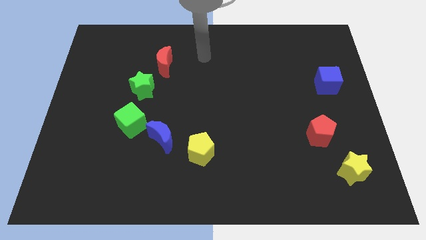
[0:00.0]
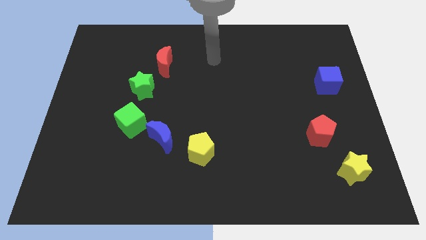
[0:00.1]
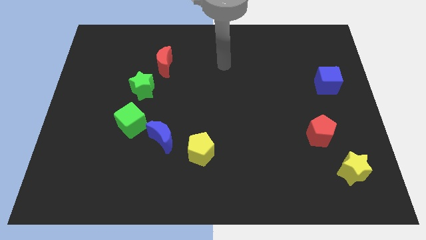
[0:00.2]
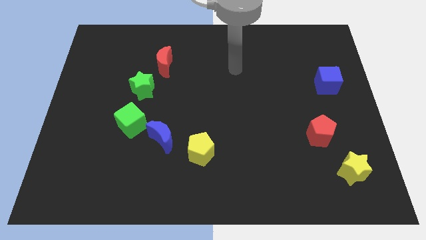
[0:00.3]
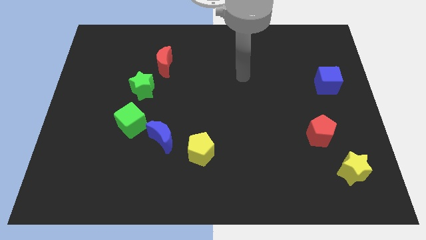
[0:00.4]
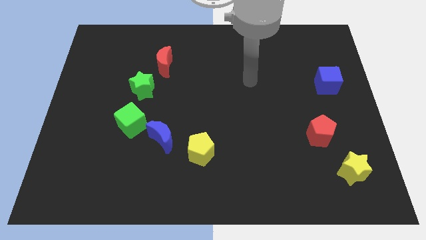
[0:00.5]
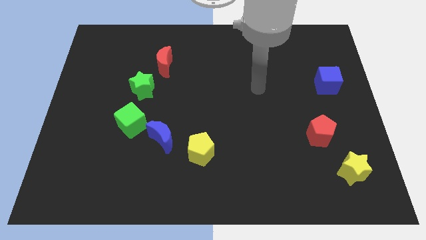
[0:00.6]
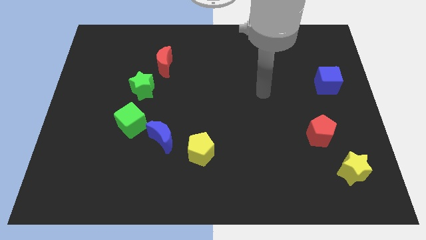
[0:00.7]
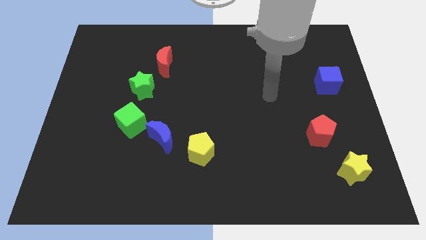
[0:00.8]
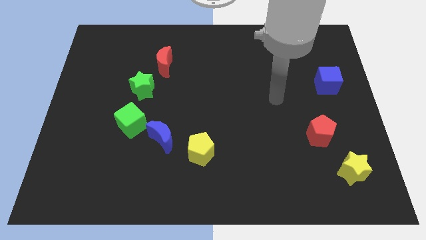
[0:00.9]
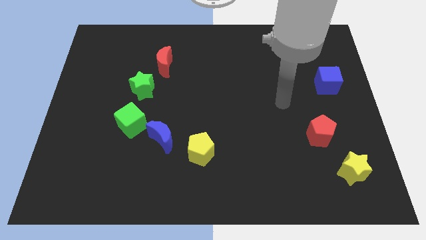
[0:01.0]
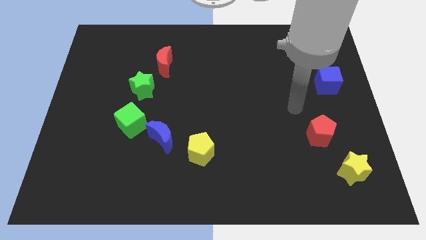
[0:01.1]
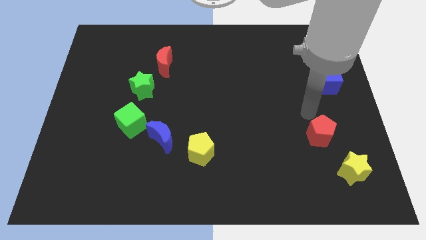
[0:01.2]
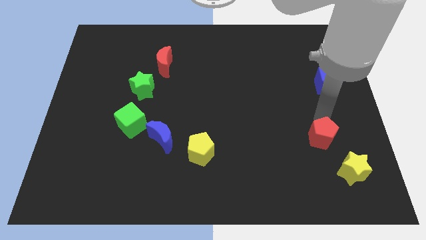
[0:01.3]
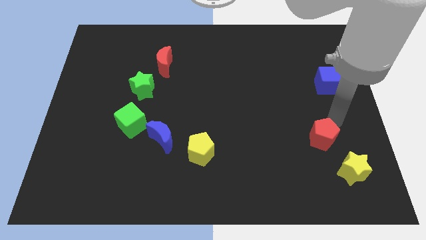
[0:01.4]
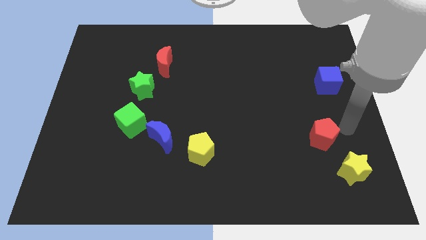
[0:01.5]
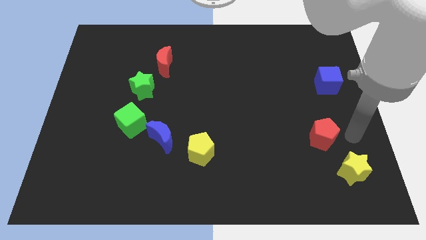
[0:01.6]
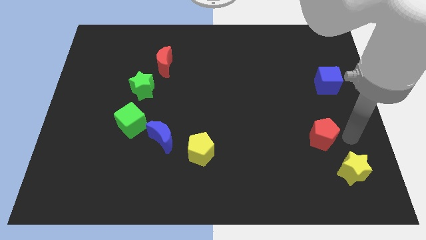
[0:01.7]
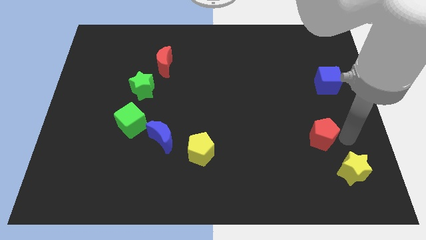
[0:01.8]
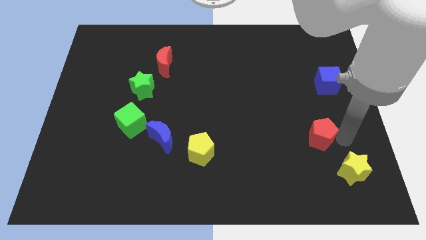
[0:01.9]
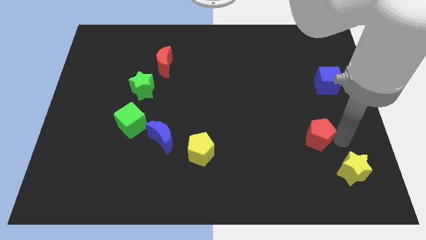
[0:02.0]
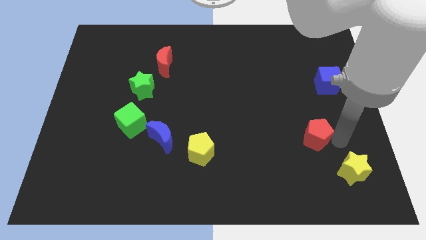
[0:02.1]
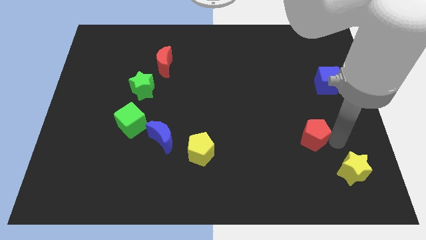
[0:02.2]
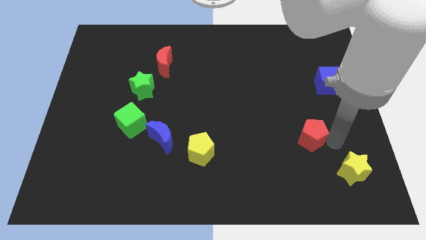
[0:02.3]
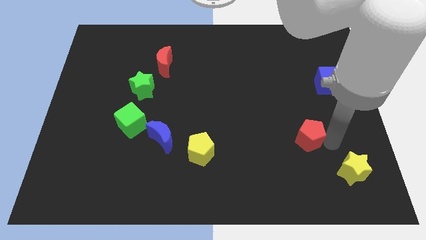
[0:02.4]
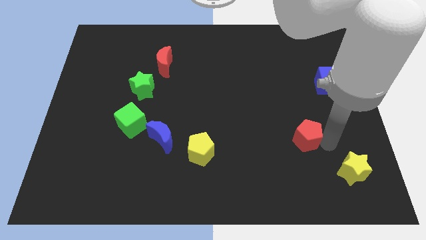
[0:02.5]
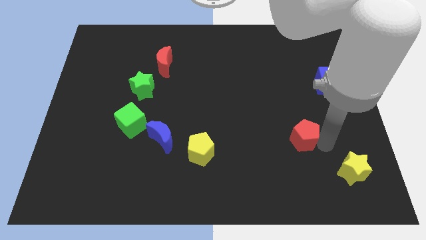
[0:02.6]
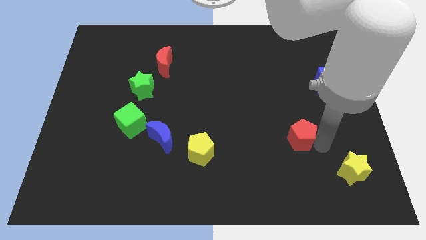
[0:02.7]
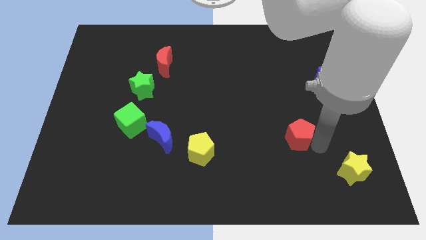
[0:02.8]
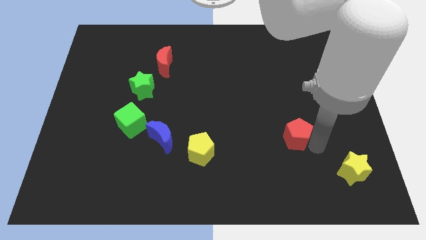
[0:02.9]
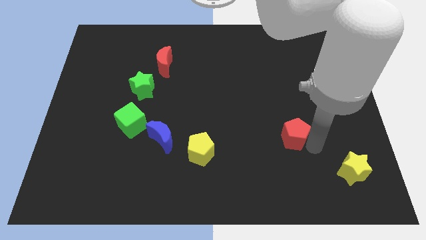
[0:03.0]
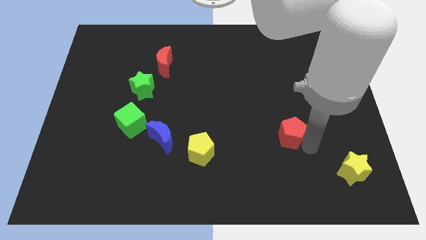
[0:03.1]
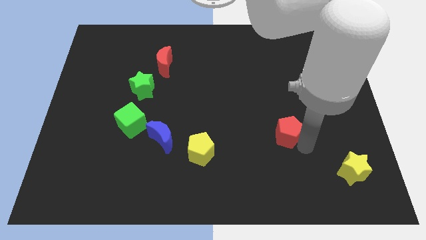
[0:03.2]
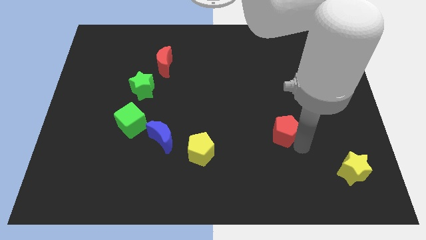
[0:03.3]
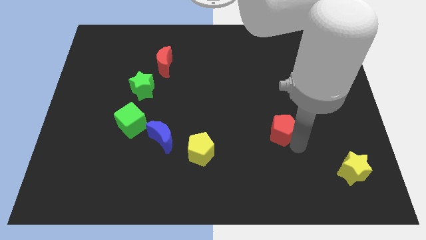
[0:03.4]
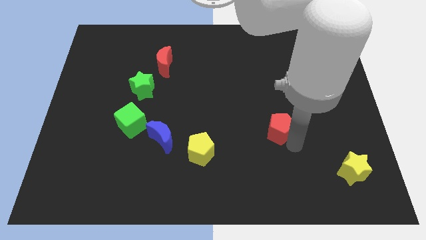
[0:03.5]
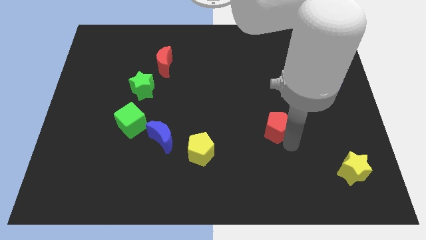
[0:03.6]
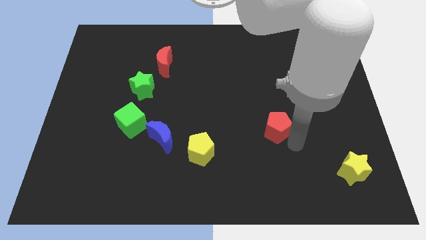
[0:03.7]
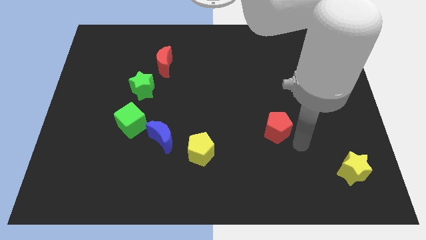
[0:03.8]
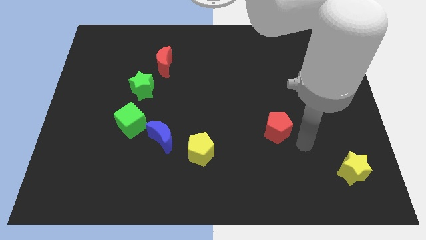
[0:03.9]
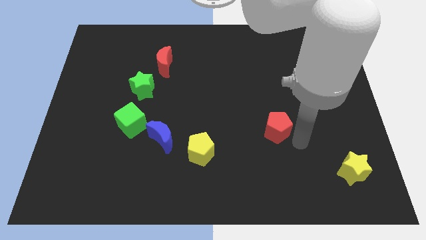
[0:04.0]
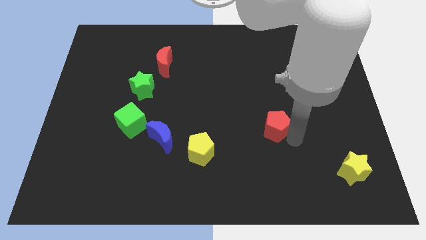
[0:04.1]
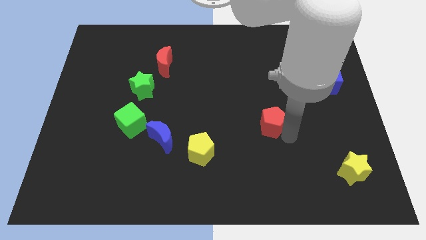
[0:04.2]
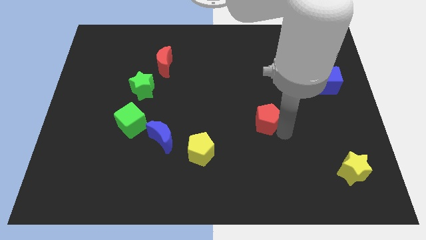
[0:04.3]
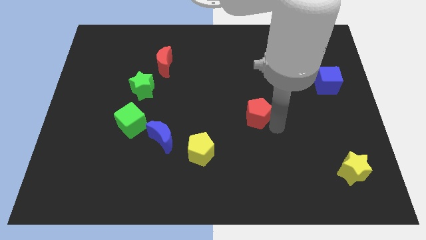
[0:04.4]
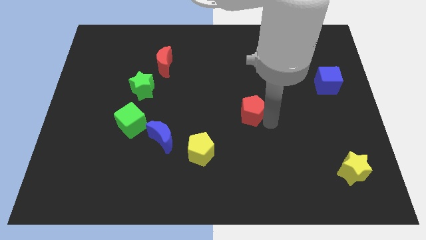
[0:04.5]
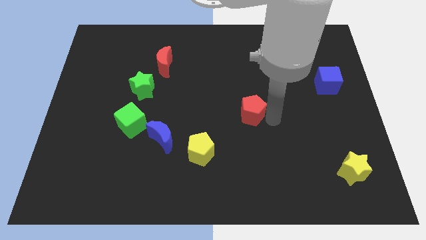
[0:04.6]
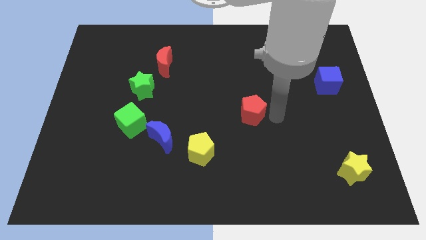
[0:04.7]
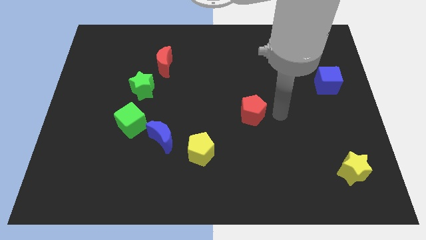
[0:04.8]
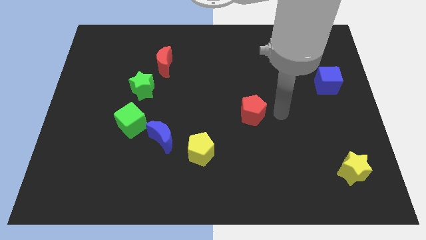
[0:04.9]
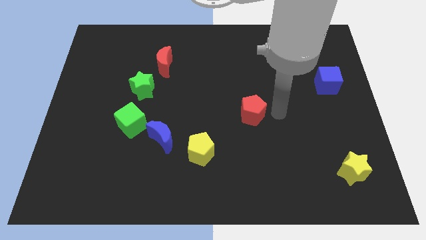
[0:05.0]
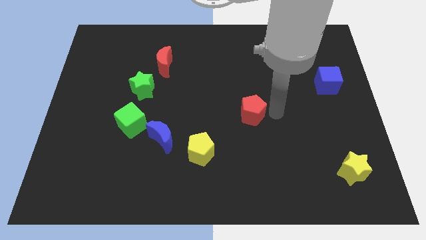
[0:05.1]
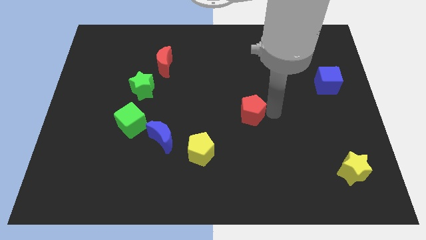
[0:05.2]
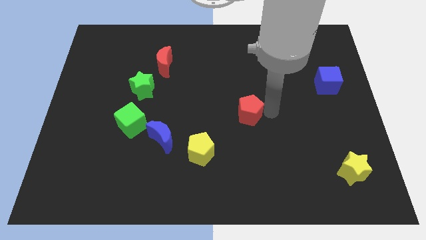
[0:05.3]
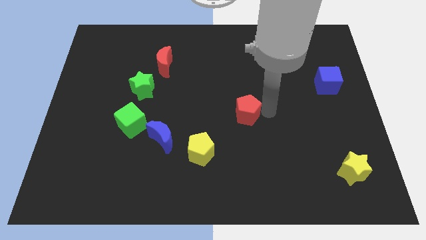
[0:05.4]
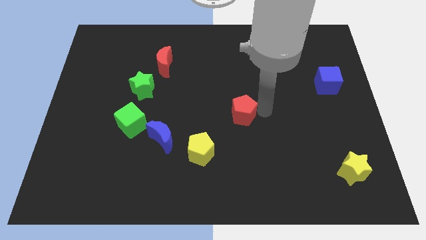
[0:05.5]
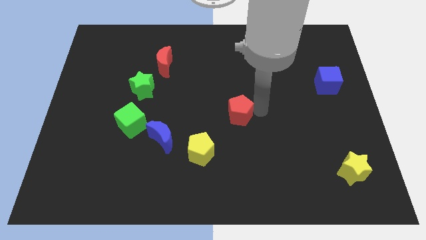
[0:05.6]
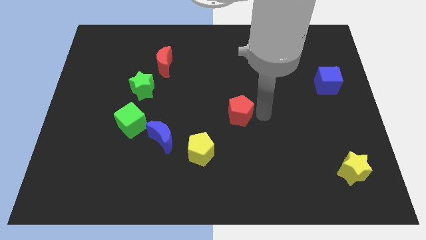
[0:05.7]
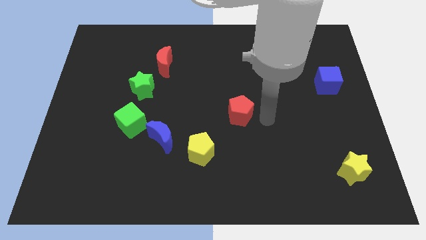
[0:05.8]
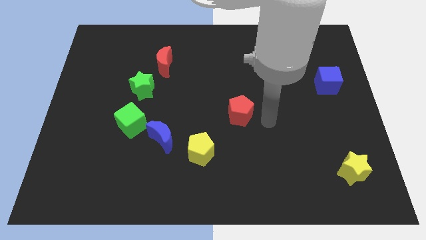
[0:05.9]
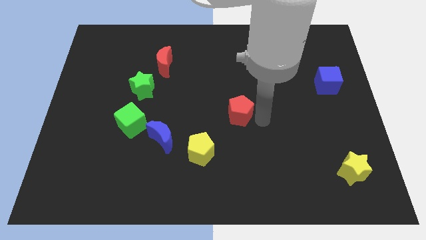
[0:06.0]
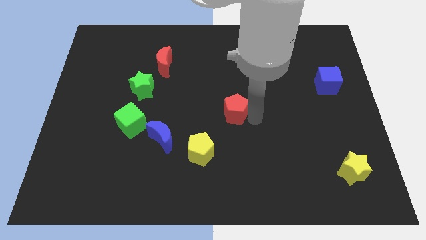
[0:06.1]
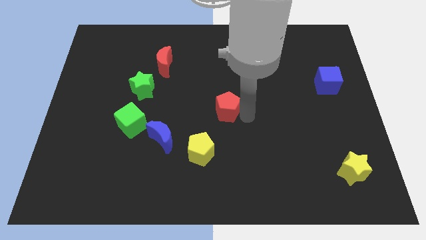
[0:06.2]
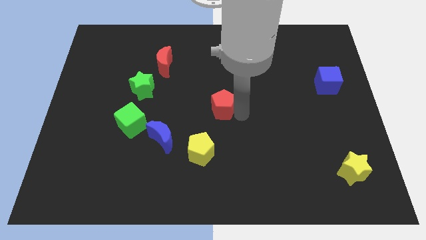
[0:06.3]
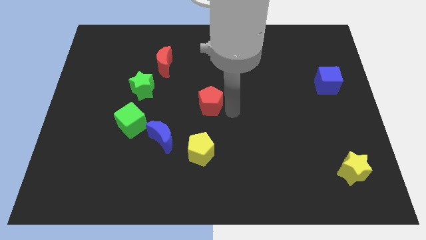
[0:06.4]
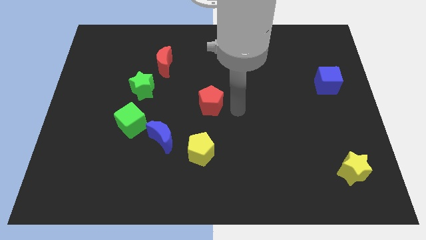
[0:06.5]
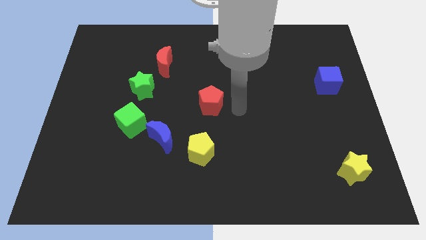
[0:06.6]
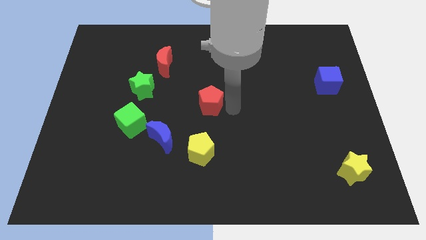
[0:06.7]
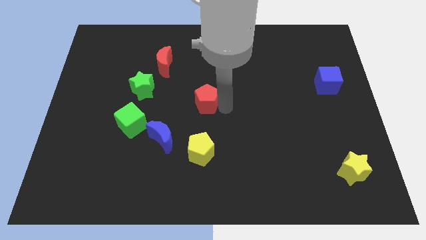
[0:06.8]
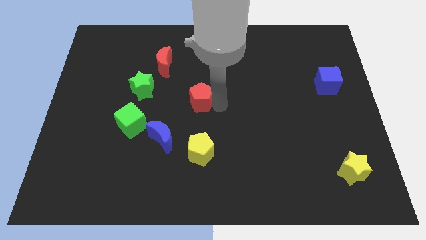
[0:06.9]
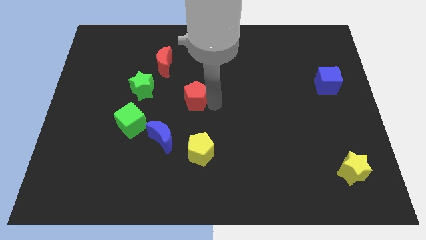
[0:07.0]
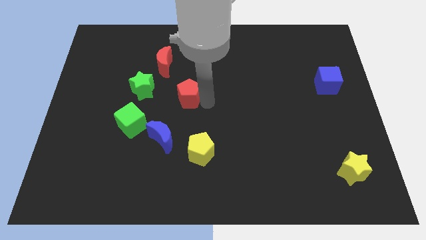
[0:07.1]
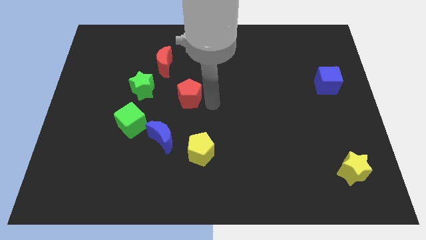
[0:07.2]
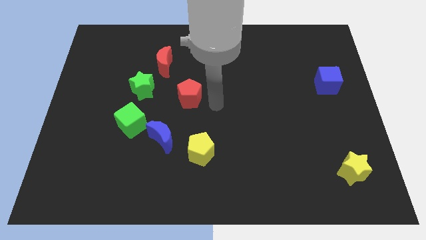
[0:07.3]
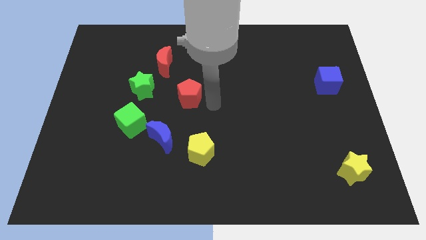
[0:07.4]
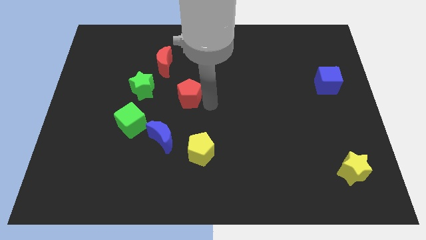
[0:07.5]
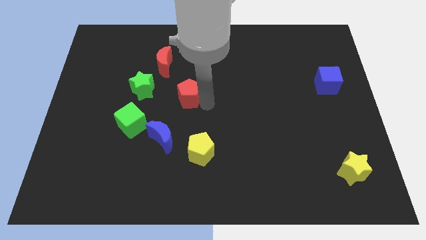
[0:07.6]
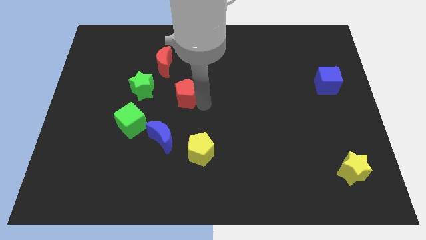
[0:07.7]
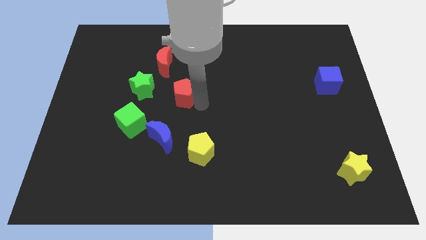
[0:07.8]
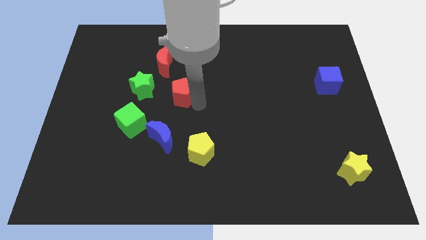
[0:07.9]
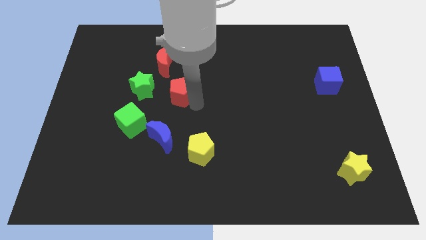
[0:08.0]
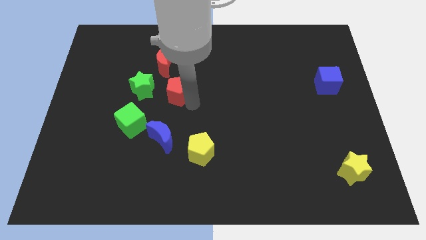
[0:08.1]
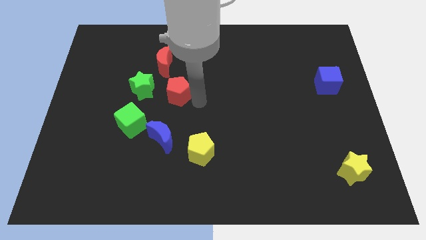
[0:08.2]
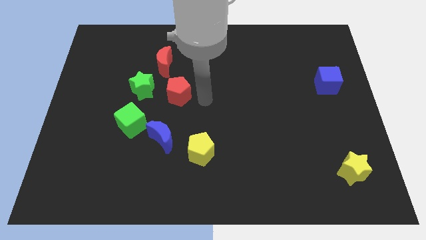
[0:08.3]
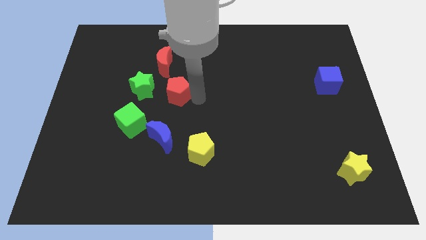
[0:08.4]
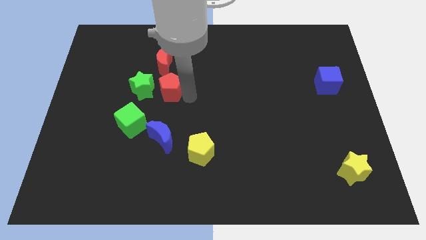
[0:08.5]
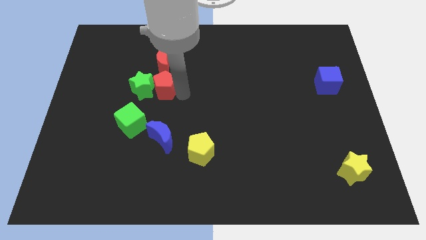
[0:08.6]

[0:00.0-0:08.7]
push the red pentagon next to the green star
